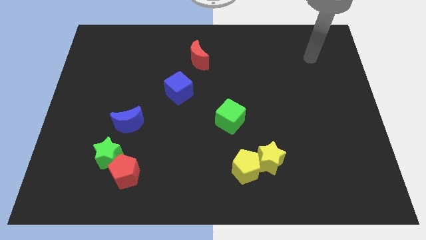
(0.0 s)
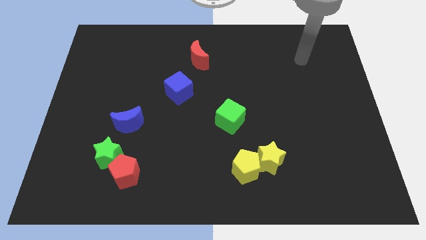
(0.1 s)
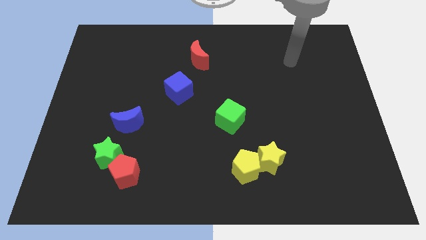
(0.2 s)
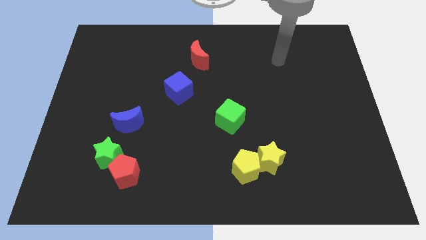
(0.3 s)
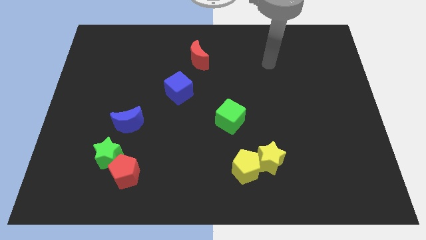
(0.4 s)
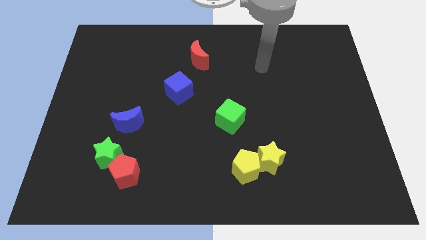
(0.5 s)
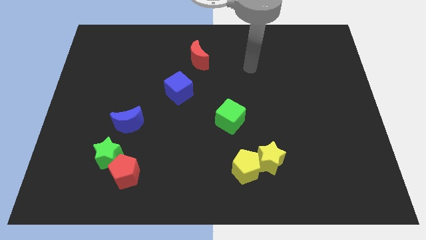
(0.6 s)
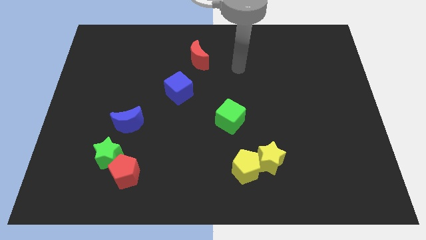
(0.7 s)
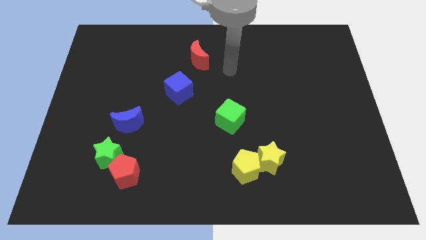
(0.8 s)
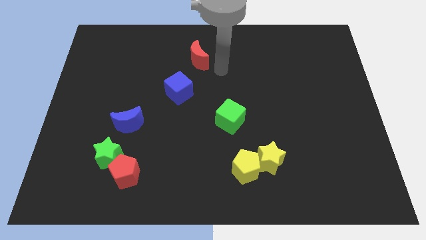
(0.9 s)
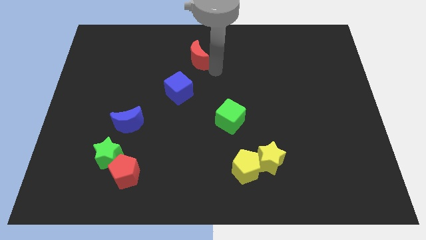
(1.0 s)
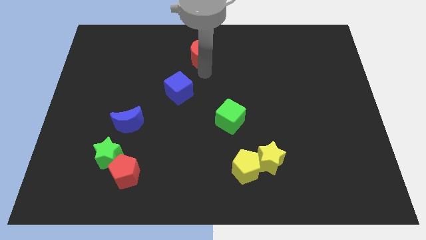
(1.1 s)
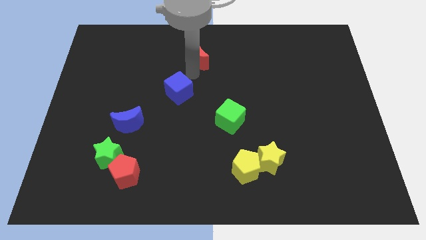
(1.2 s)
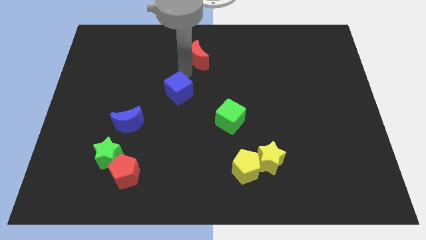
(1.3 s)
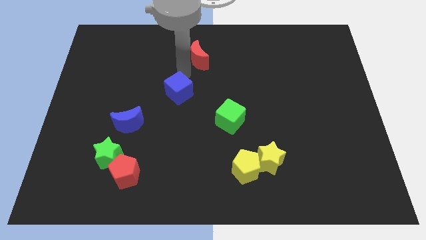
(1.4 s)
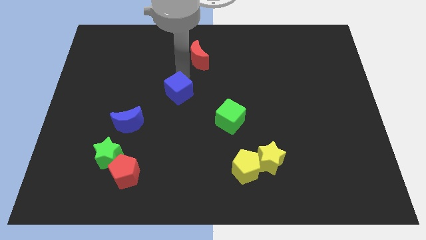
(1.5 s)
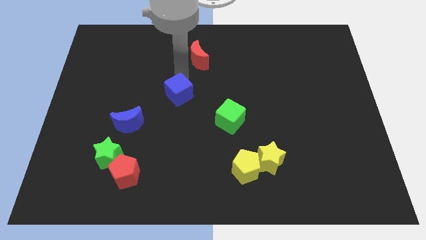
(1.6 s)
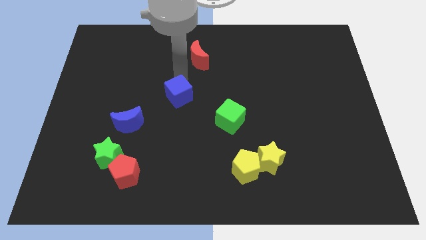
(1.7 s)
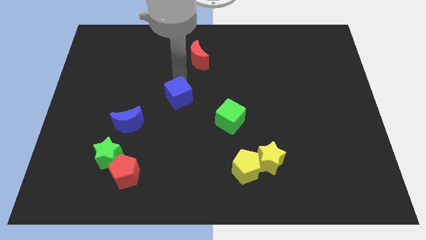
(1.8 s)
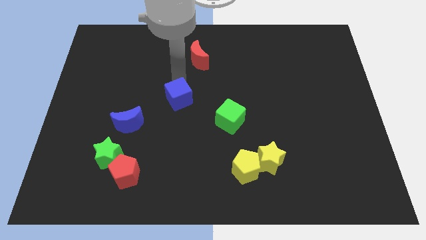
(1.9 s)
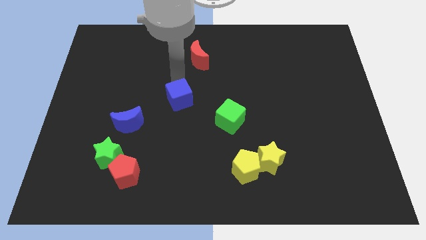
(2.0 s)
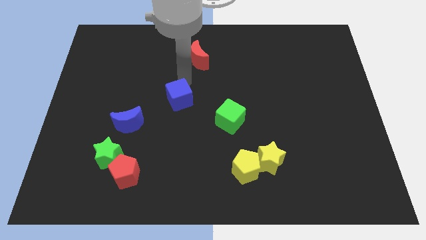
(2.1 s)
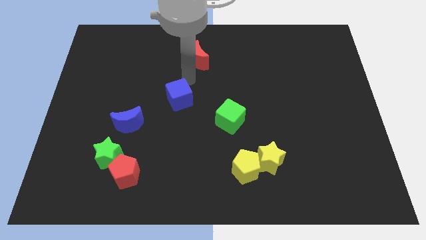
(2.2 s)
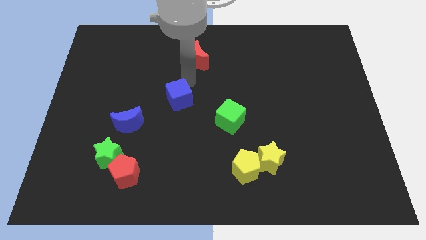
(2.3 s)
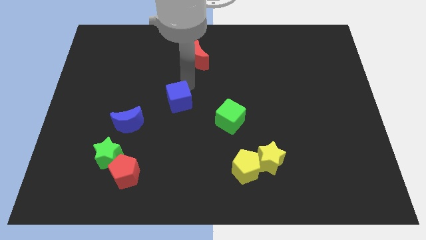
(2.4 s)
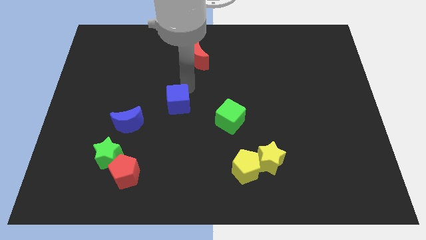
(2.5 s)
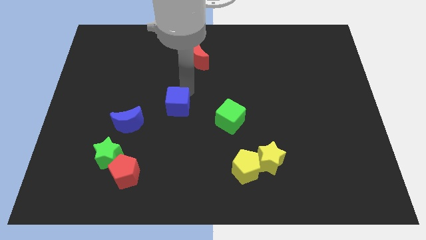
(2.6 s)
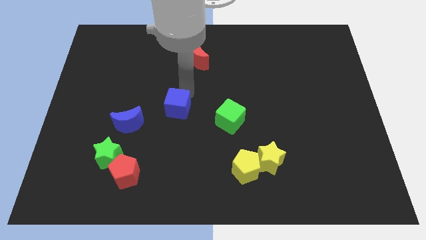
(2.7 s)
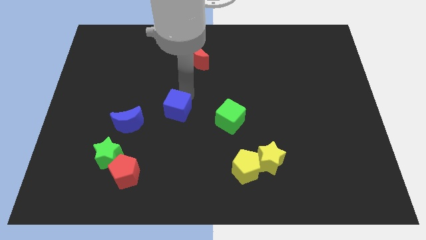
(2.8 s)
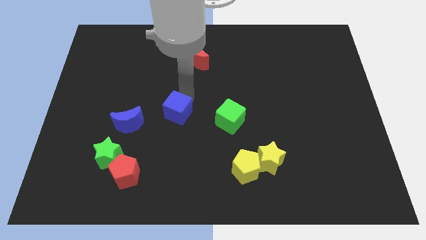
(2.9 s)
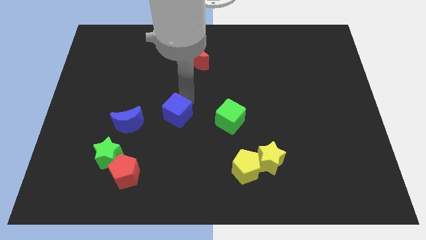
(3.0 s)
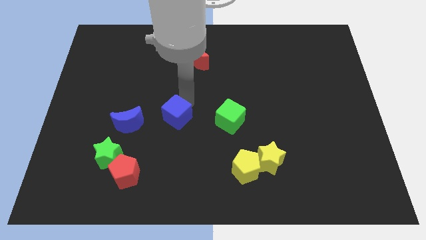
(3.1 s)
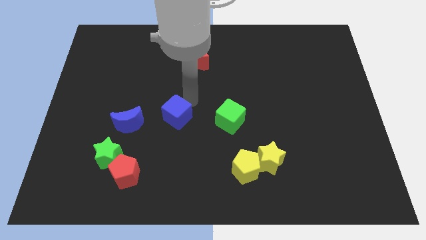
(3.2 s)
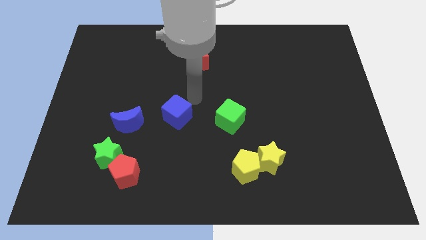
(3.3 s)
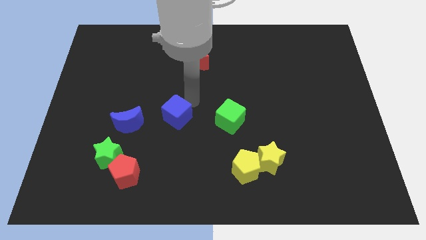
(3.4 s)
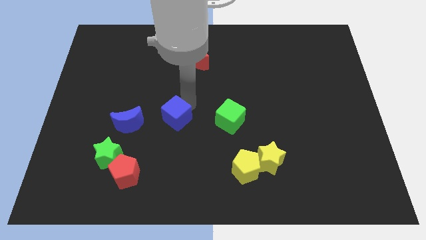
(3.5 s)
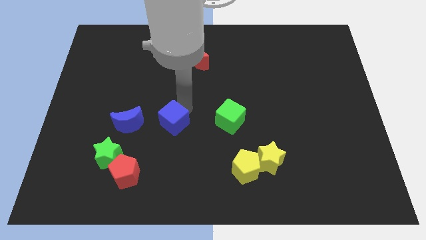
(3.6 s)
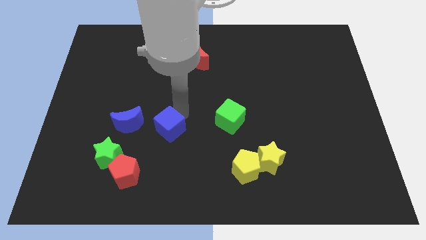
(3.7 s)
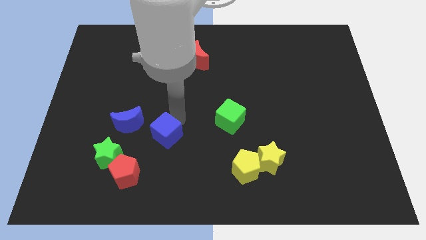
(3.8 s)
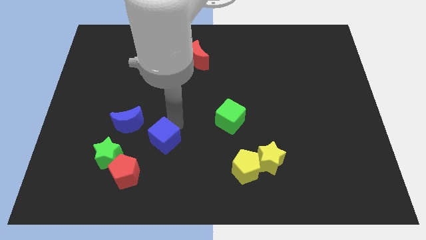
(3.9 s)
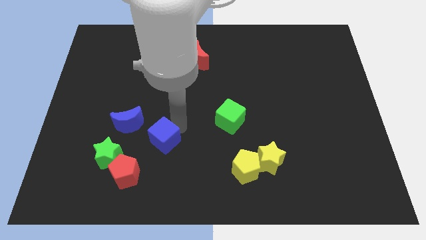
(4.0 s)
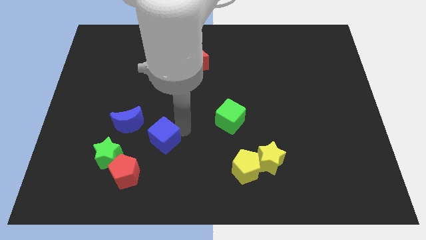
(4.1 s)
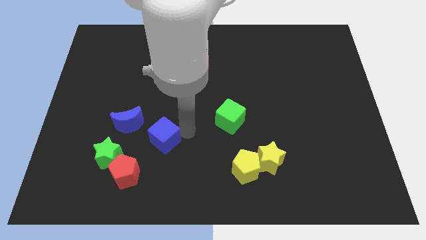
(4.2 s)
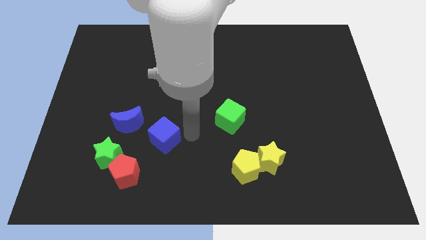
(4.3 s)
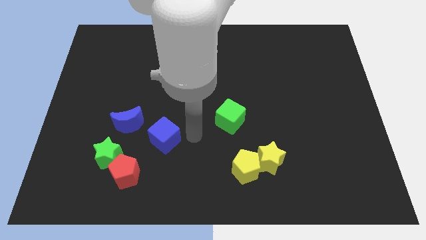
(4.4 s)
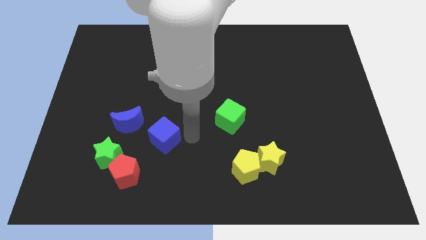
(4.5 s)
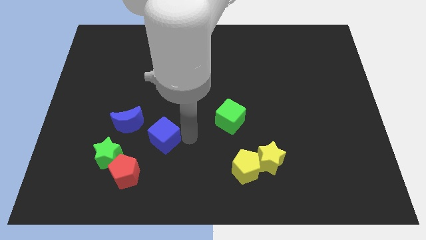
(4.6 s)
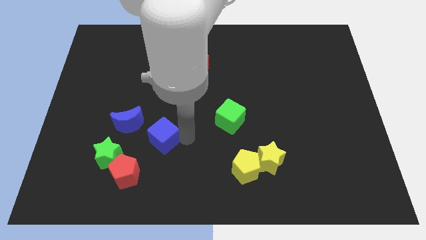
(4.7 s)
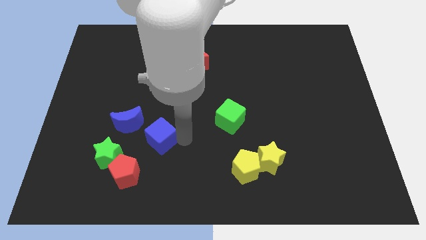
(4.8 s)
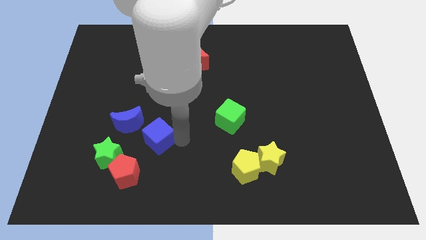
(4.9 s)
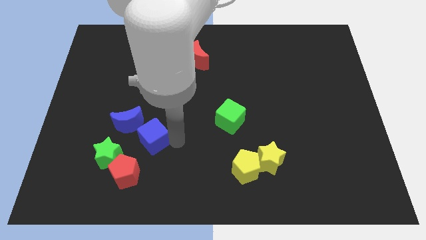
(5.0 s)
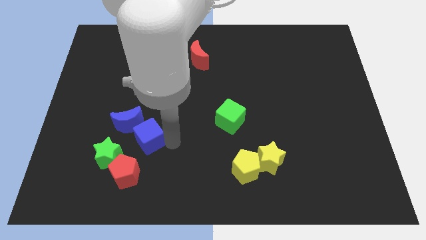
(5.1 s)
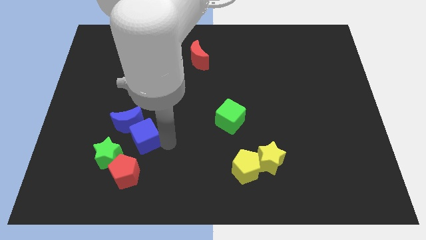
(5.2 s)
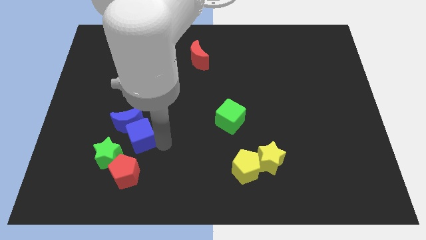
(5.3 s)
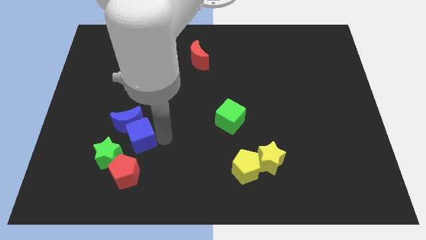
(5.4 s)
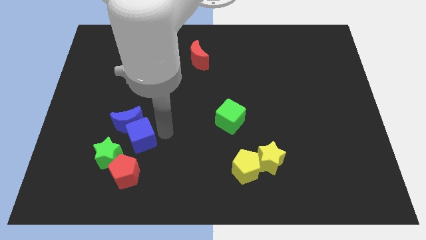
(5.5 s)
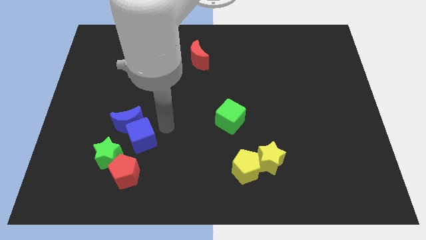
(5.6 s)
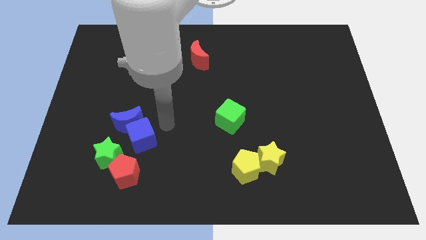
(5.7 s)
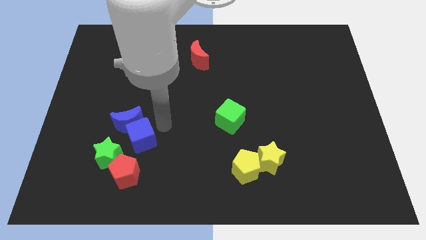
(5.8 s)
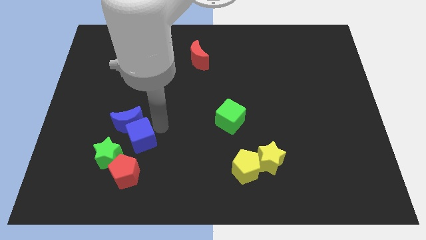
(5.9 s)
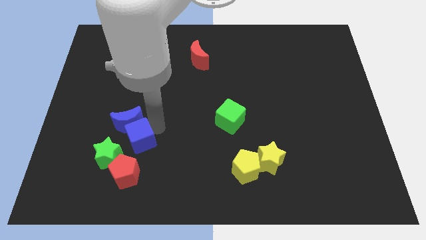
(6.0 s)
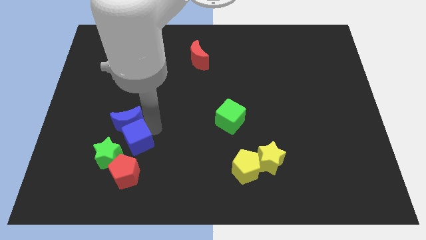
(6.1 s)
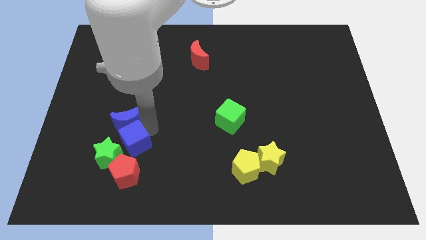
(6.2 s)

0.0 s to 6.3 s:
slide the blue cube to the green star

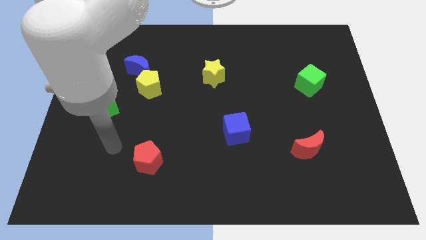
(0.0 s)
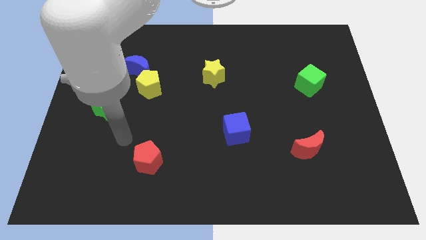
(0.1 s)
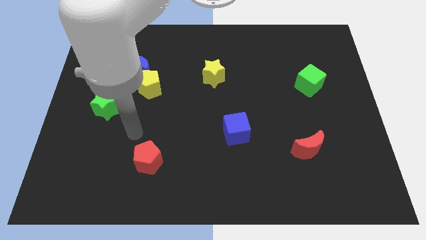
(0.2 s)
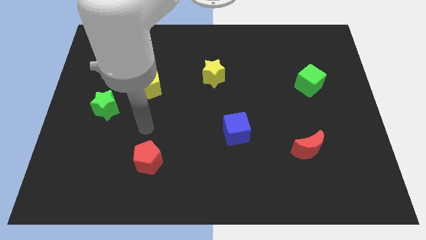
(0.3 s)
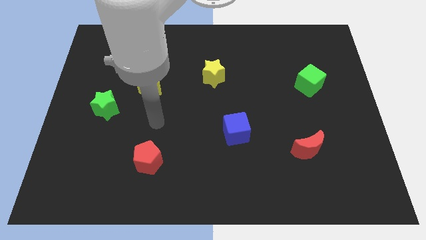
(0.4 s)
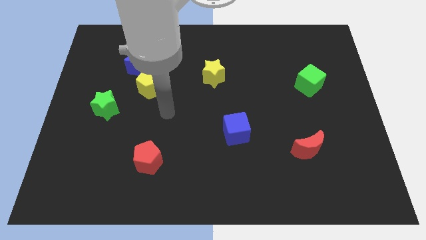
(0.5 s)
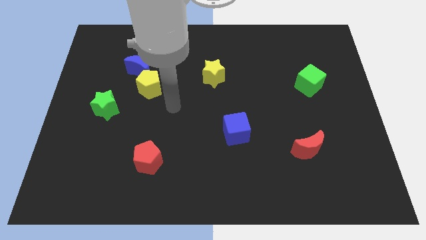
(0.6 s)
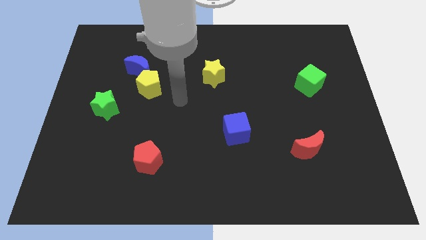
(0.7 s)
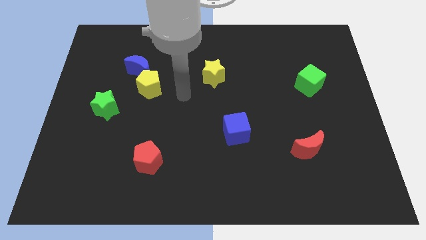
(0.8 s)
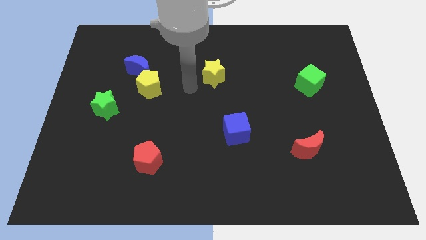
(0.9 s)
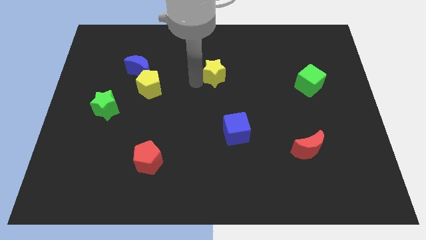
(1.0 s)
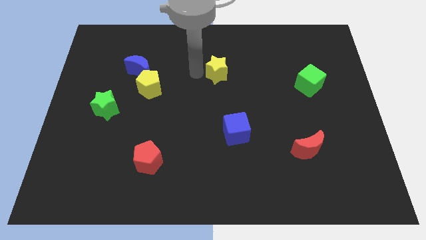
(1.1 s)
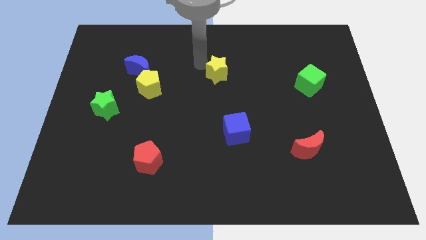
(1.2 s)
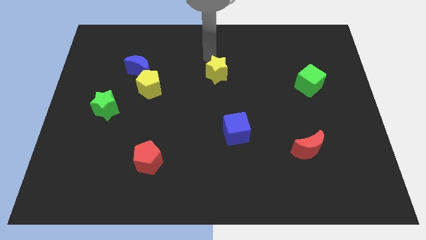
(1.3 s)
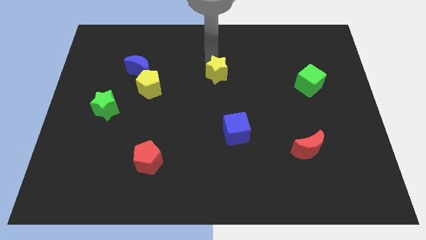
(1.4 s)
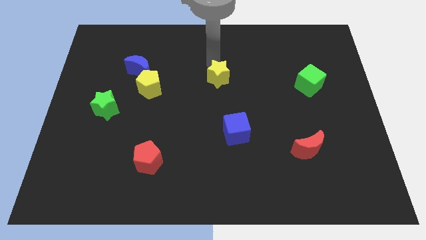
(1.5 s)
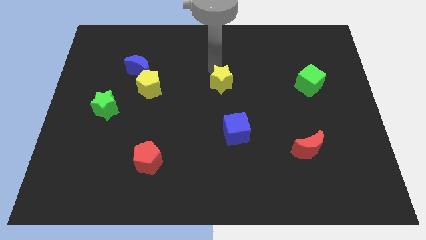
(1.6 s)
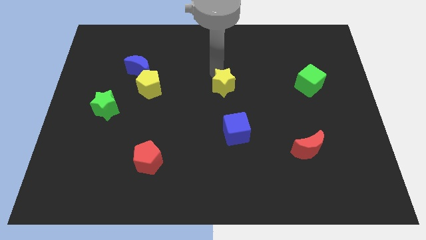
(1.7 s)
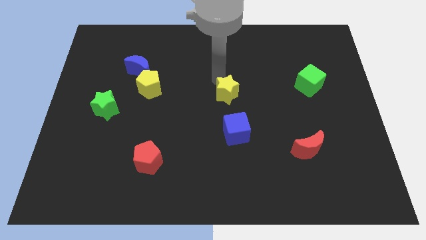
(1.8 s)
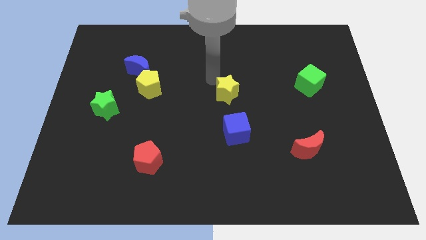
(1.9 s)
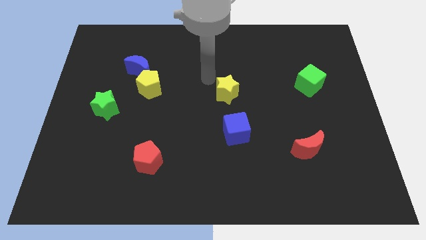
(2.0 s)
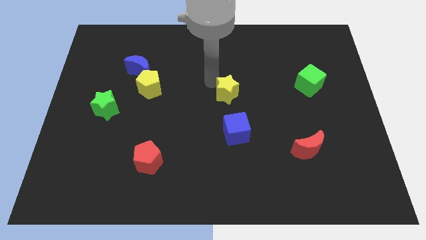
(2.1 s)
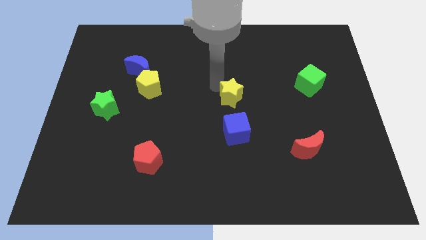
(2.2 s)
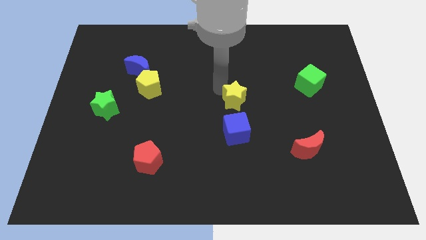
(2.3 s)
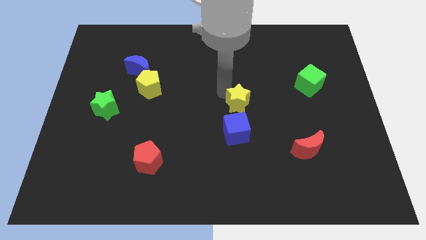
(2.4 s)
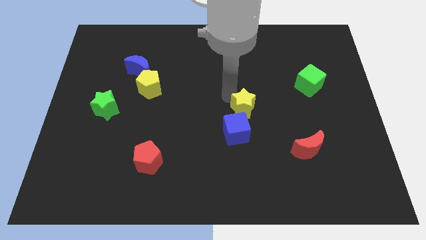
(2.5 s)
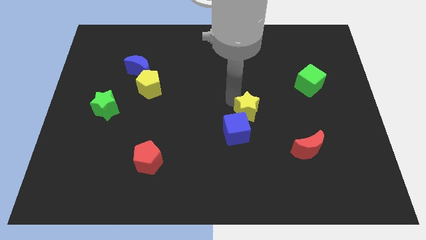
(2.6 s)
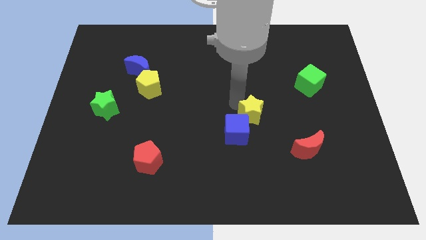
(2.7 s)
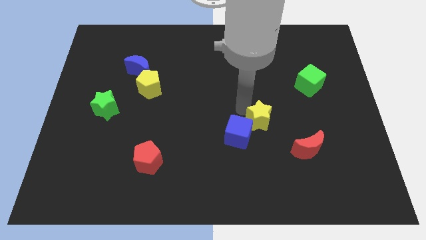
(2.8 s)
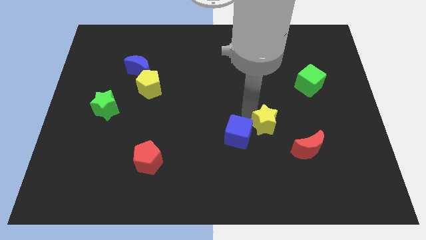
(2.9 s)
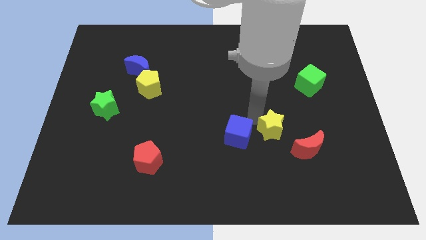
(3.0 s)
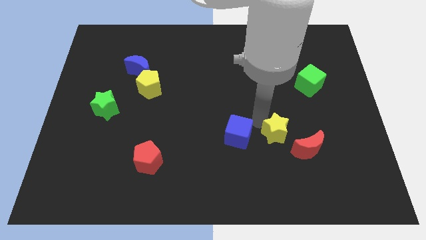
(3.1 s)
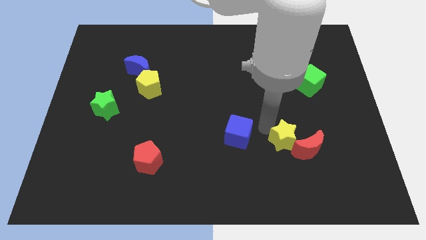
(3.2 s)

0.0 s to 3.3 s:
put the yellow star towards the red moon
